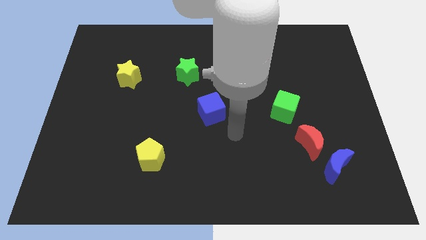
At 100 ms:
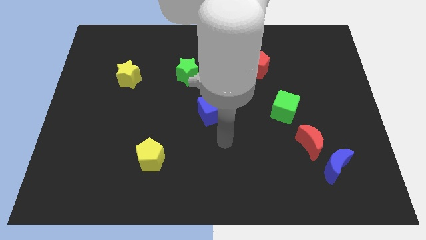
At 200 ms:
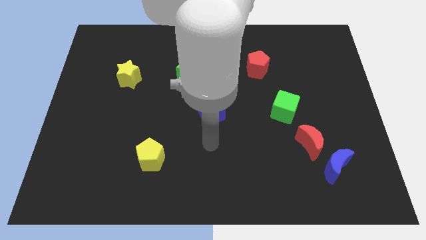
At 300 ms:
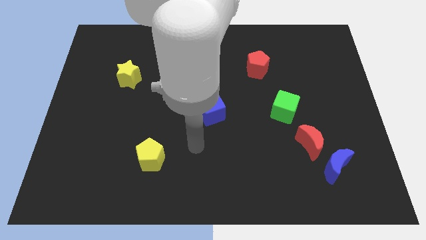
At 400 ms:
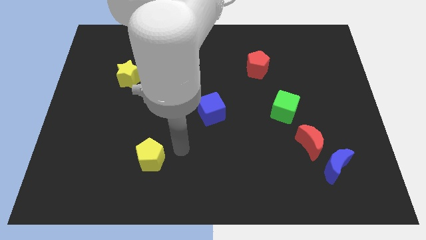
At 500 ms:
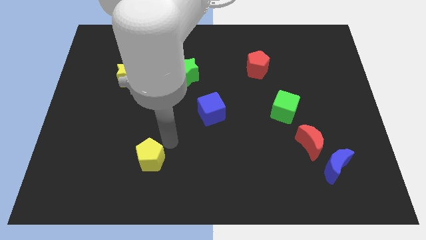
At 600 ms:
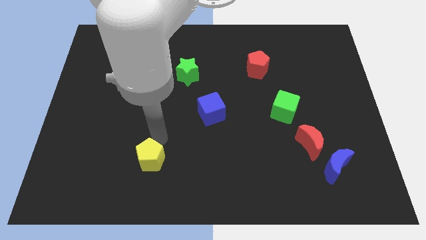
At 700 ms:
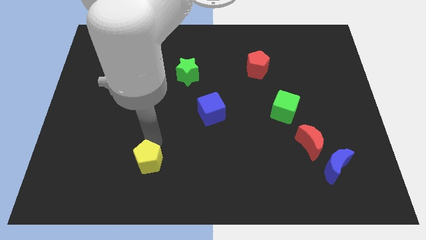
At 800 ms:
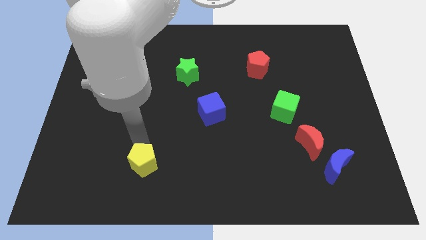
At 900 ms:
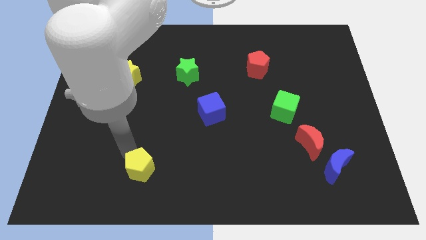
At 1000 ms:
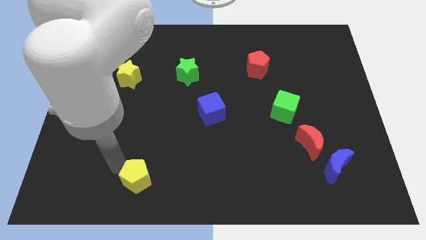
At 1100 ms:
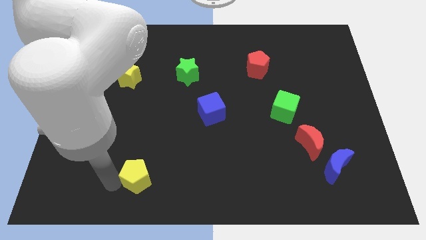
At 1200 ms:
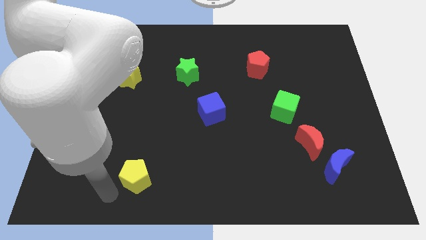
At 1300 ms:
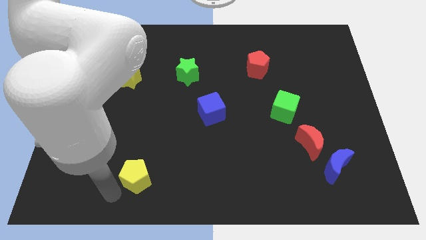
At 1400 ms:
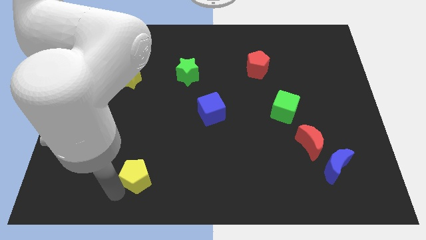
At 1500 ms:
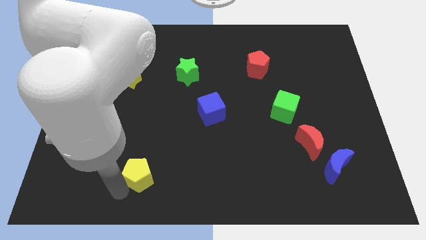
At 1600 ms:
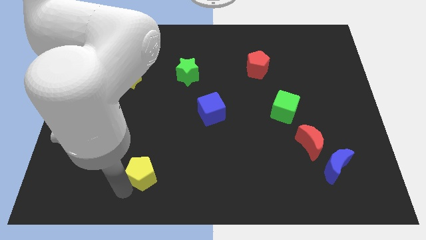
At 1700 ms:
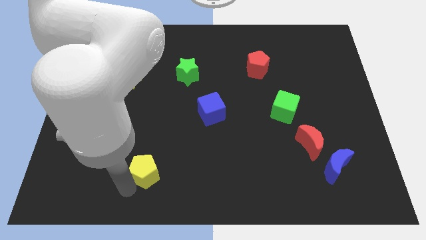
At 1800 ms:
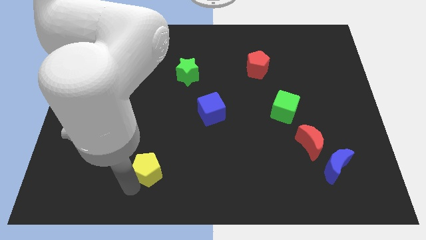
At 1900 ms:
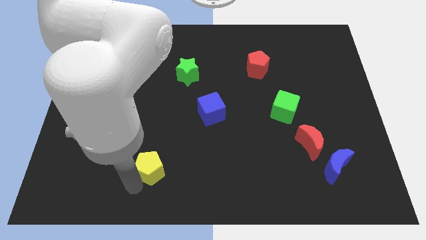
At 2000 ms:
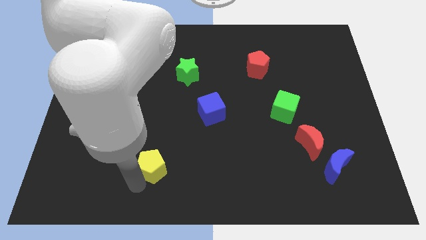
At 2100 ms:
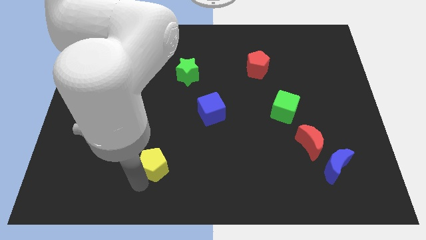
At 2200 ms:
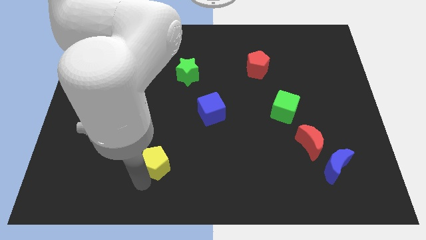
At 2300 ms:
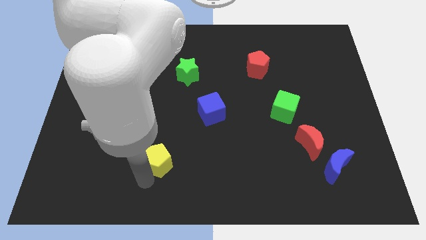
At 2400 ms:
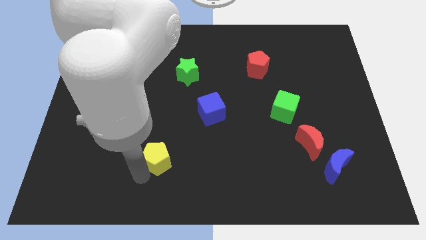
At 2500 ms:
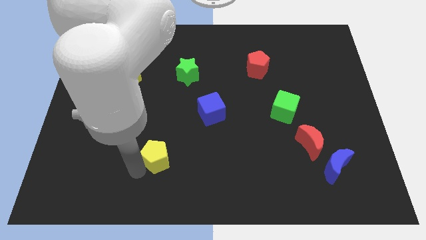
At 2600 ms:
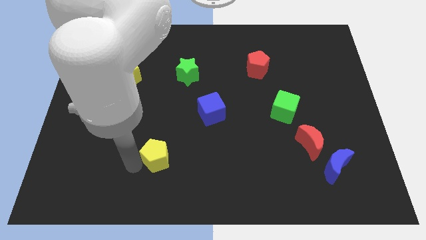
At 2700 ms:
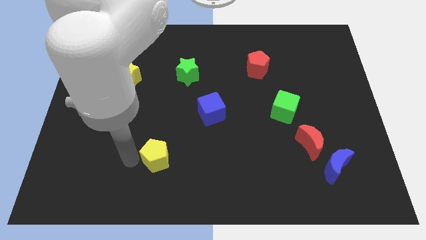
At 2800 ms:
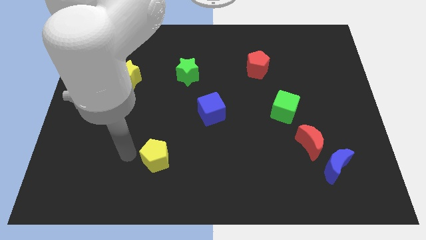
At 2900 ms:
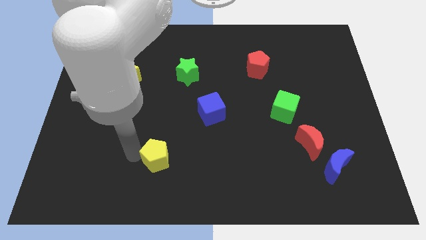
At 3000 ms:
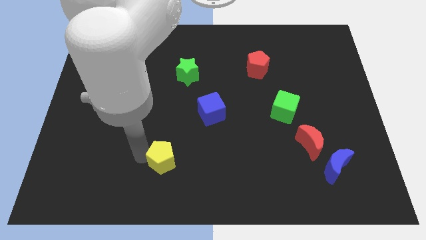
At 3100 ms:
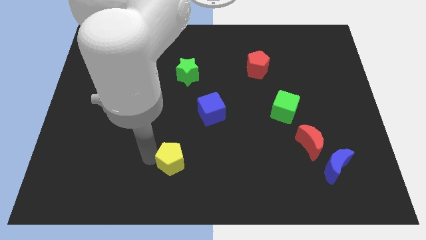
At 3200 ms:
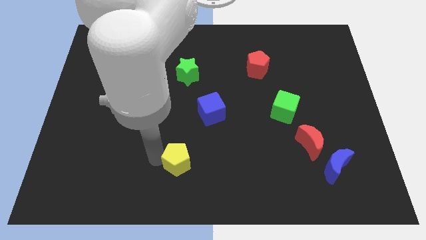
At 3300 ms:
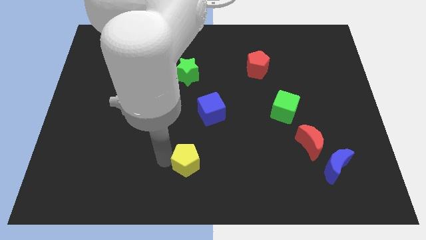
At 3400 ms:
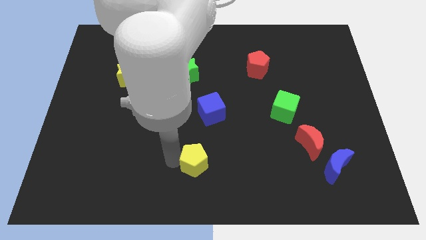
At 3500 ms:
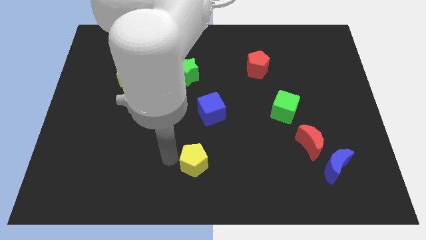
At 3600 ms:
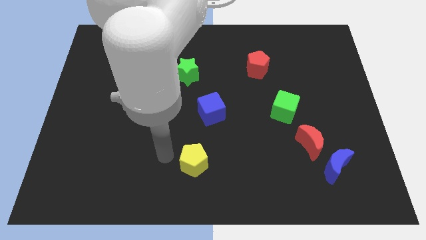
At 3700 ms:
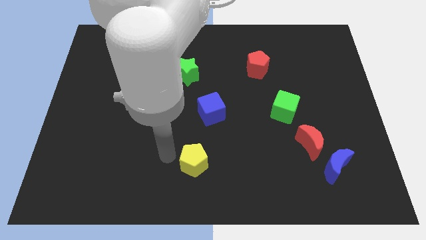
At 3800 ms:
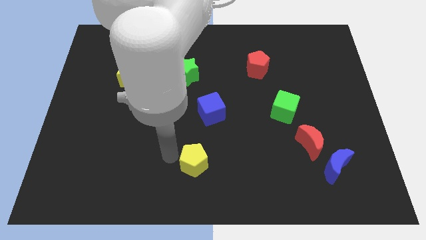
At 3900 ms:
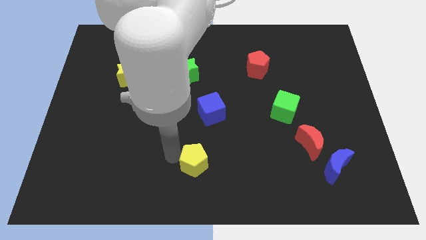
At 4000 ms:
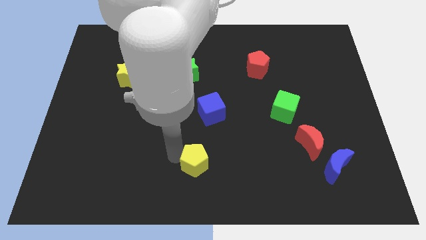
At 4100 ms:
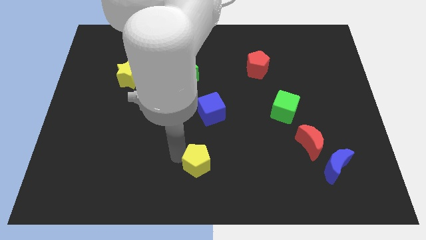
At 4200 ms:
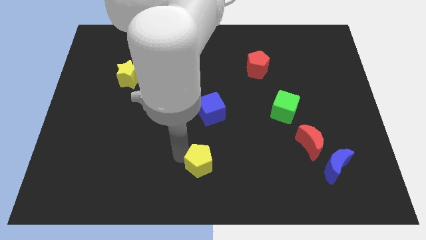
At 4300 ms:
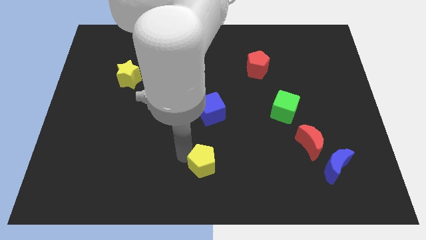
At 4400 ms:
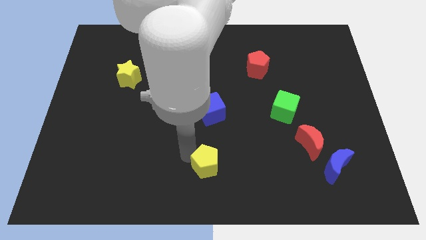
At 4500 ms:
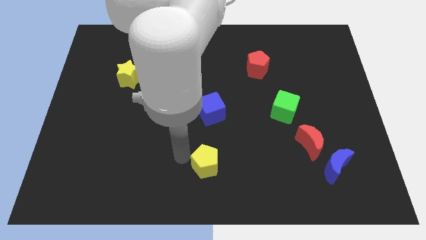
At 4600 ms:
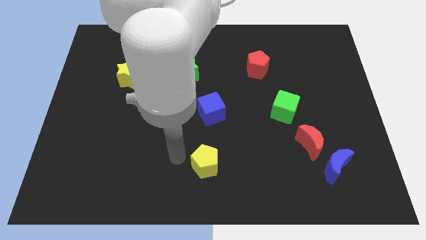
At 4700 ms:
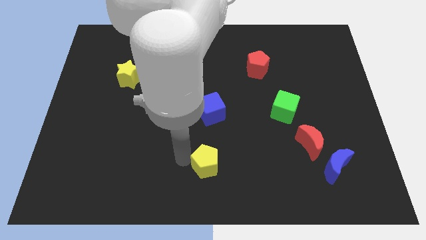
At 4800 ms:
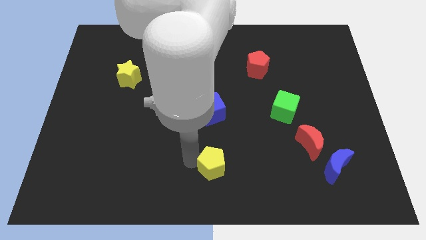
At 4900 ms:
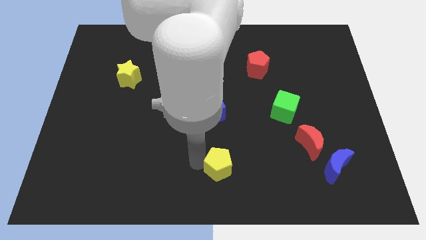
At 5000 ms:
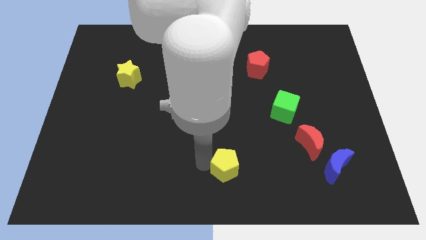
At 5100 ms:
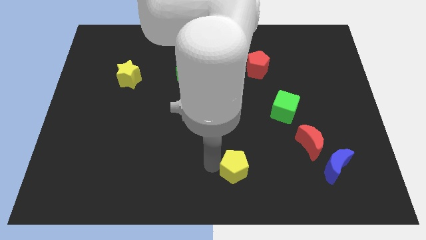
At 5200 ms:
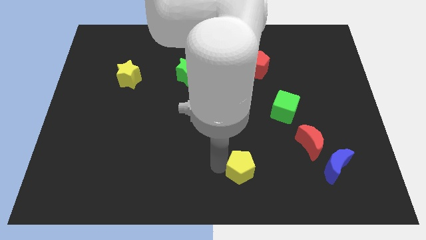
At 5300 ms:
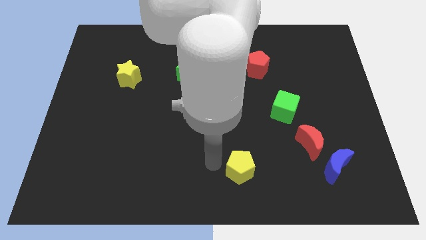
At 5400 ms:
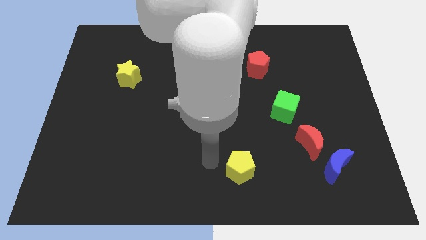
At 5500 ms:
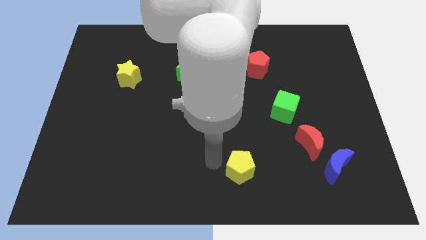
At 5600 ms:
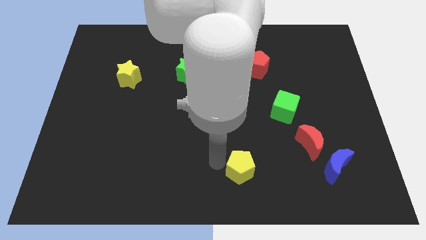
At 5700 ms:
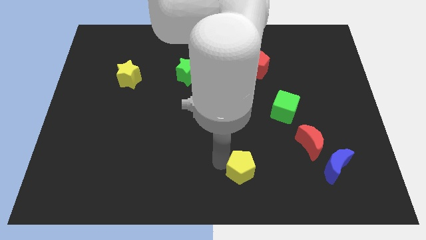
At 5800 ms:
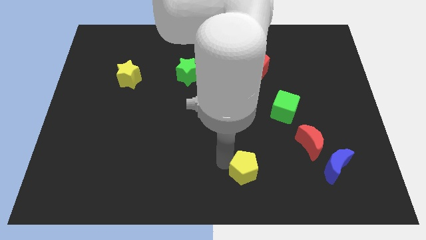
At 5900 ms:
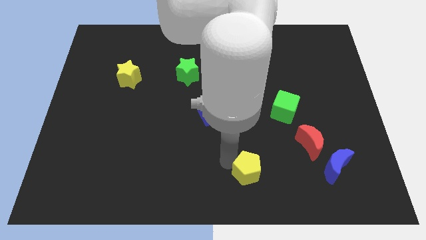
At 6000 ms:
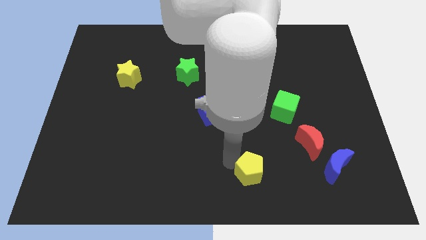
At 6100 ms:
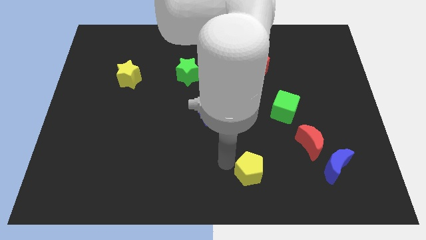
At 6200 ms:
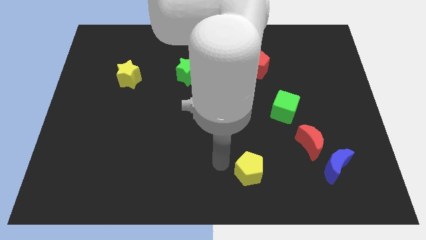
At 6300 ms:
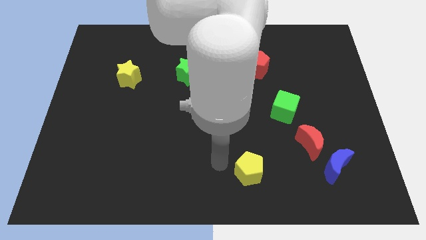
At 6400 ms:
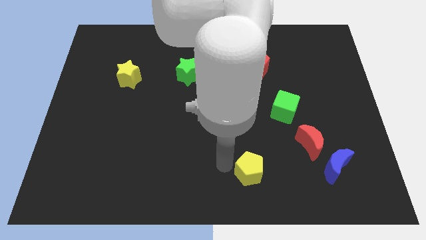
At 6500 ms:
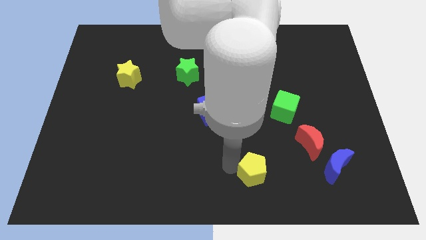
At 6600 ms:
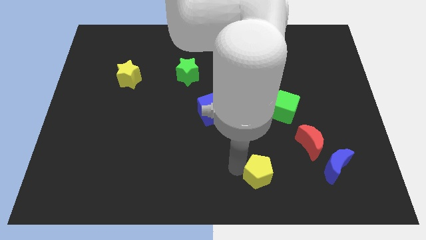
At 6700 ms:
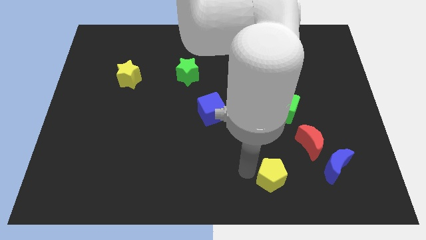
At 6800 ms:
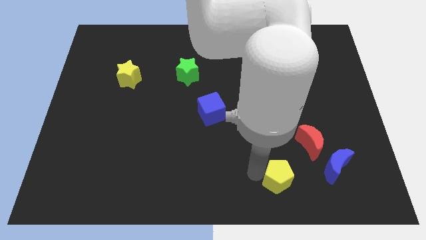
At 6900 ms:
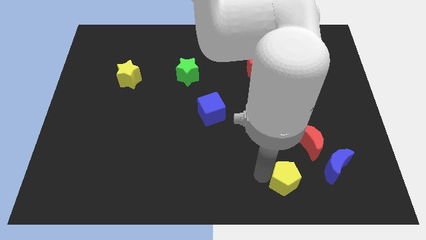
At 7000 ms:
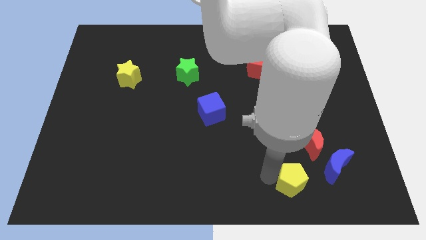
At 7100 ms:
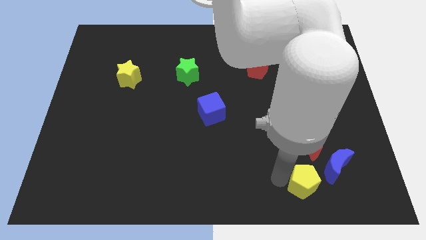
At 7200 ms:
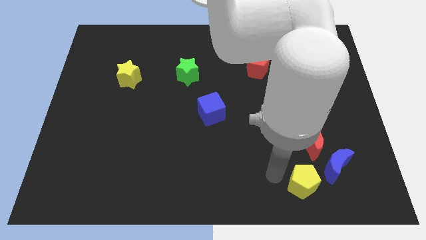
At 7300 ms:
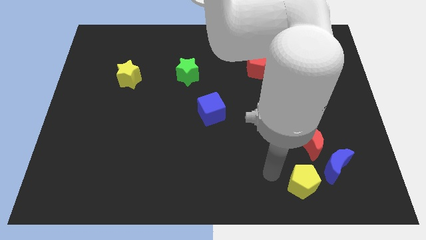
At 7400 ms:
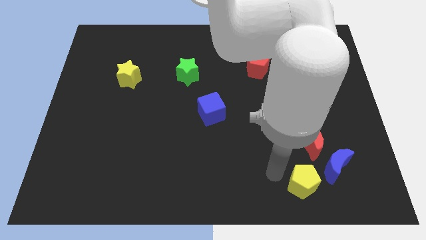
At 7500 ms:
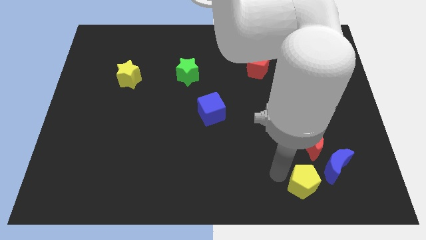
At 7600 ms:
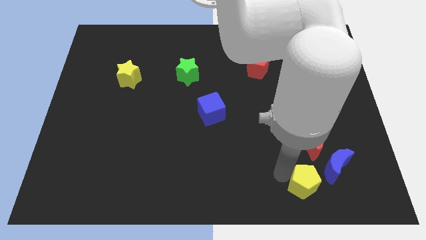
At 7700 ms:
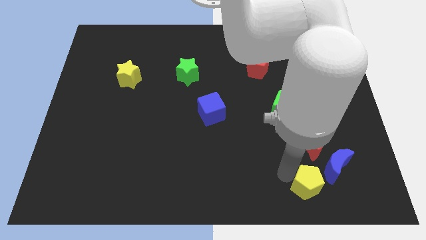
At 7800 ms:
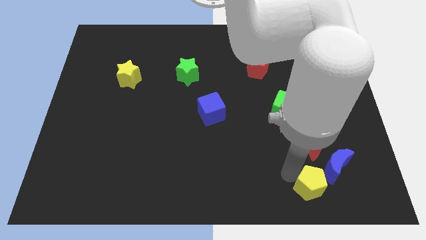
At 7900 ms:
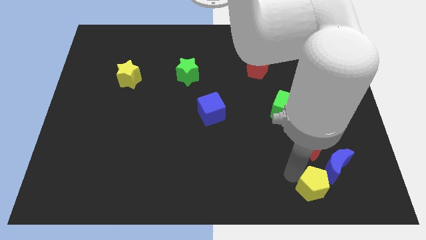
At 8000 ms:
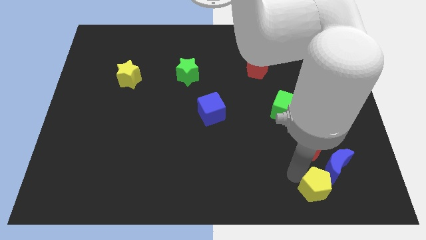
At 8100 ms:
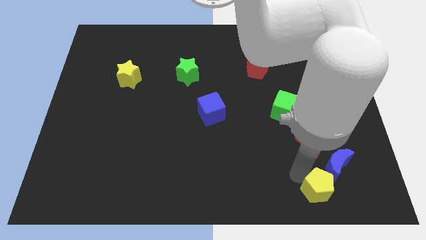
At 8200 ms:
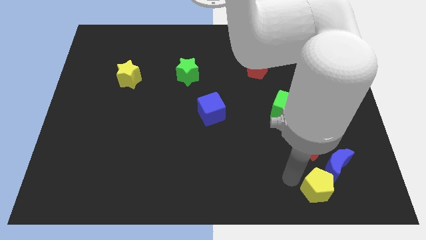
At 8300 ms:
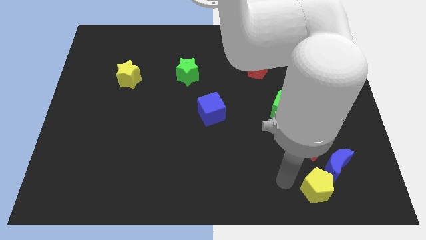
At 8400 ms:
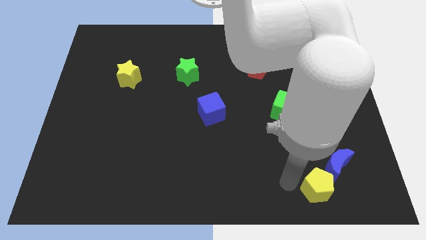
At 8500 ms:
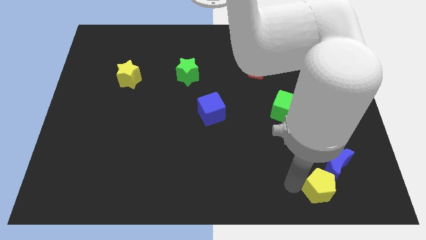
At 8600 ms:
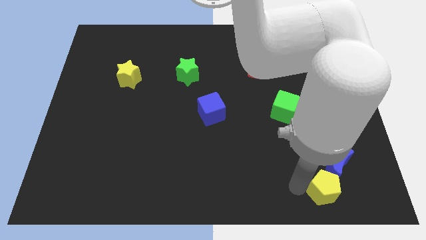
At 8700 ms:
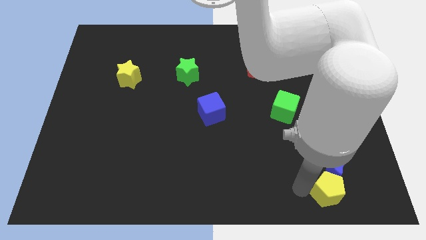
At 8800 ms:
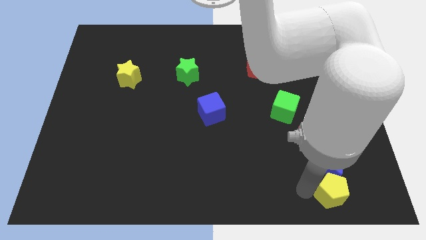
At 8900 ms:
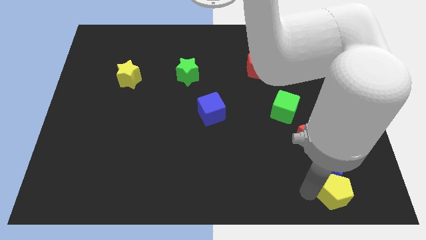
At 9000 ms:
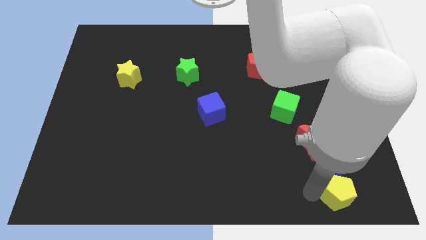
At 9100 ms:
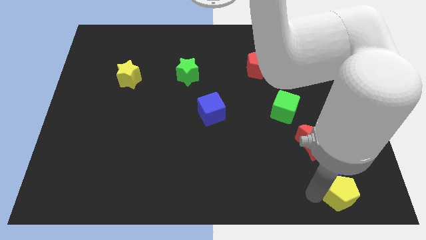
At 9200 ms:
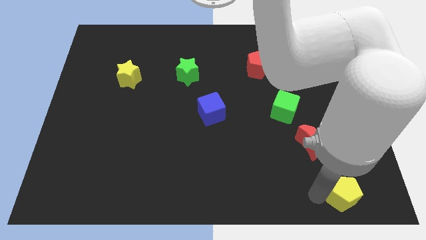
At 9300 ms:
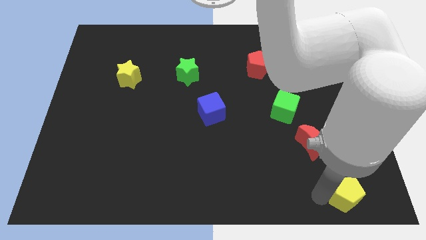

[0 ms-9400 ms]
put the yellow pentagon to the bottom right
